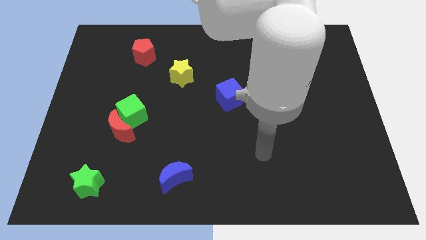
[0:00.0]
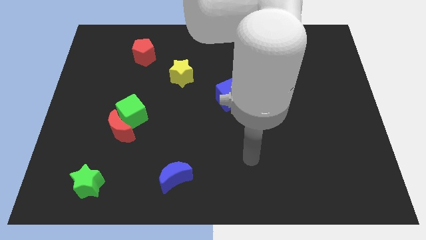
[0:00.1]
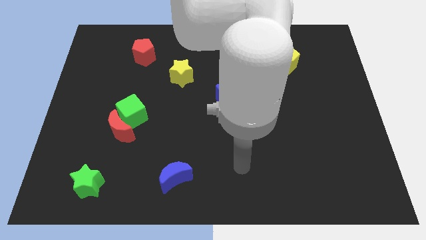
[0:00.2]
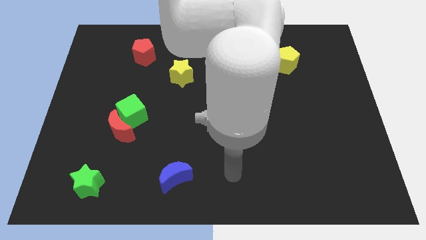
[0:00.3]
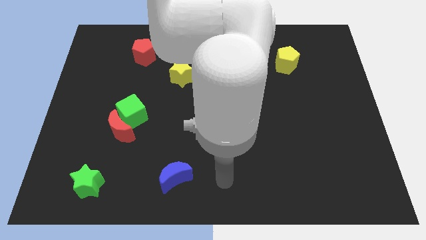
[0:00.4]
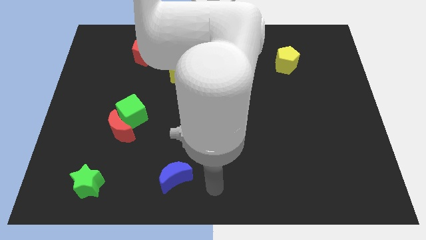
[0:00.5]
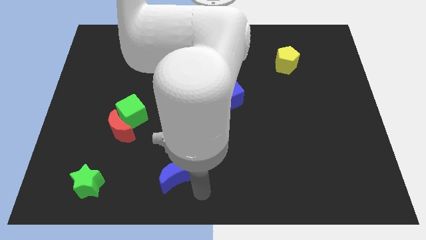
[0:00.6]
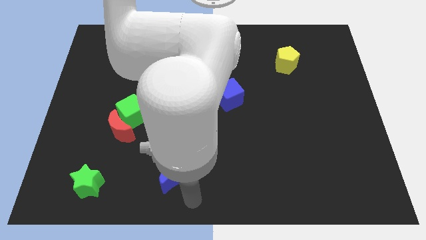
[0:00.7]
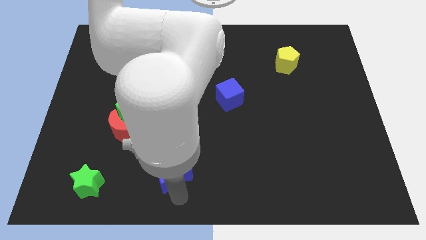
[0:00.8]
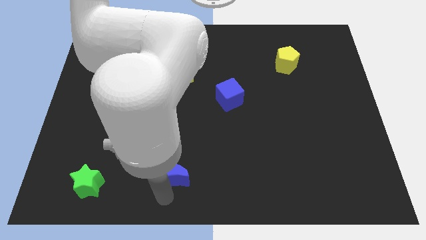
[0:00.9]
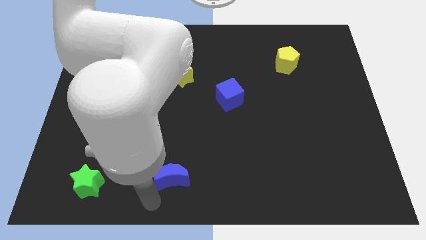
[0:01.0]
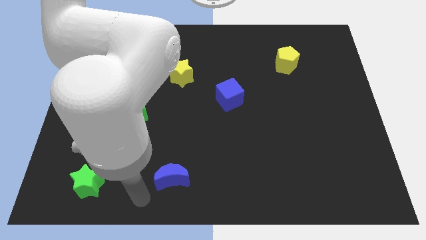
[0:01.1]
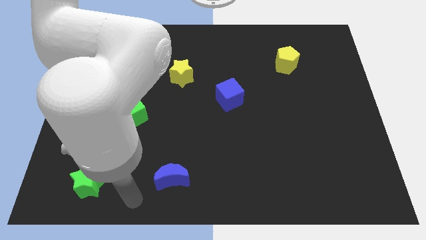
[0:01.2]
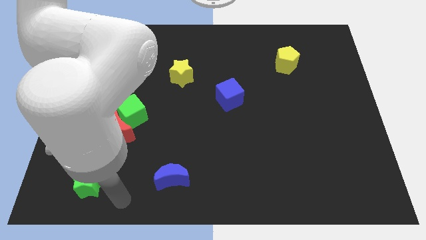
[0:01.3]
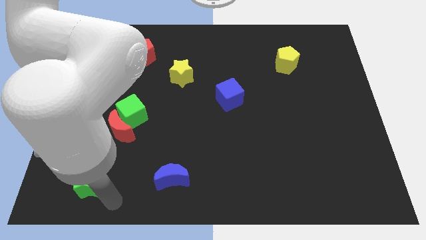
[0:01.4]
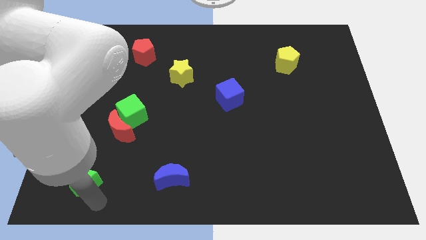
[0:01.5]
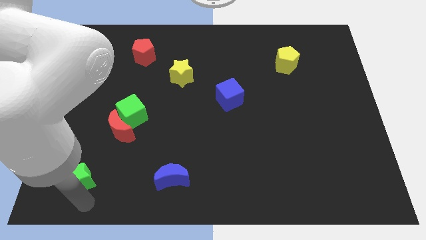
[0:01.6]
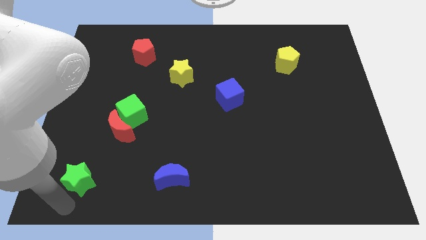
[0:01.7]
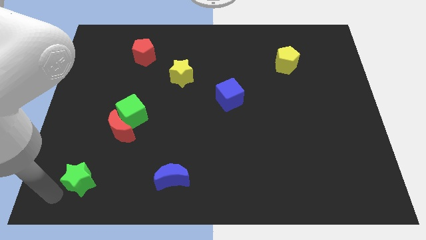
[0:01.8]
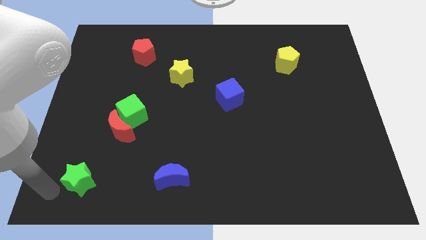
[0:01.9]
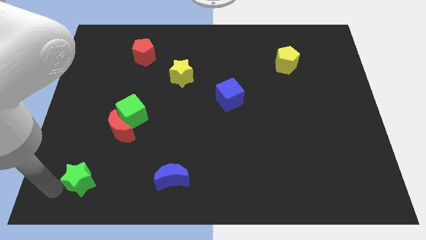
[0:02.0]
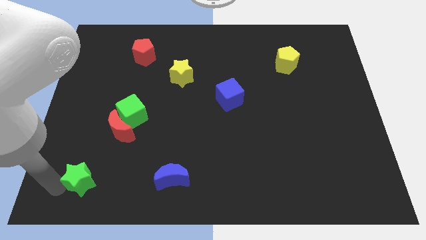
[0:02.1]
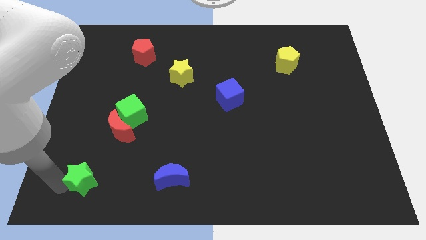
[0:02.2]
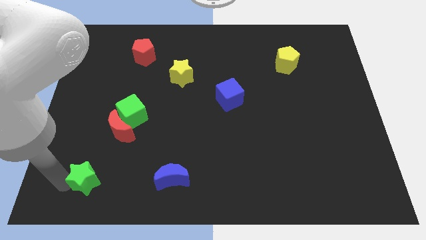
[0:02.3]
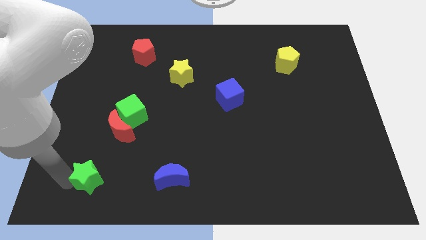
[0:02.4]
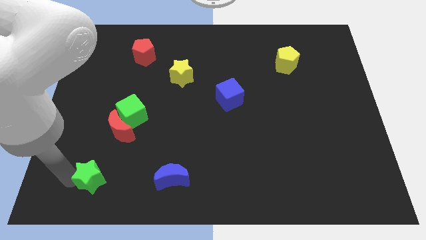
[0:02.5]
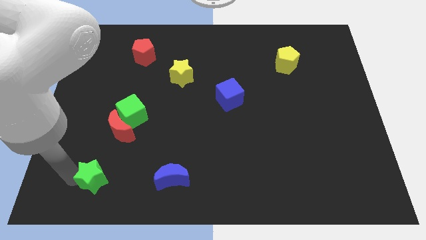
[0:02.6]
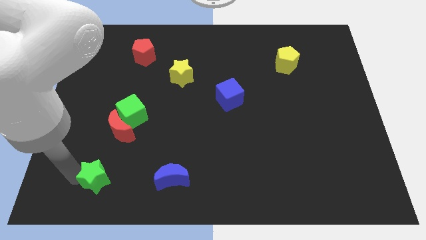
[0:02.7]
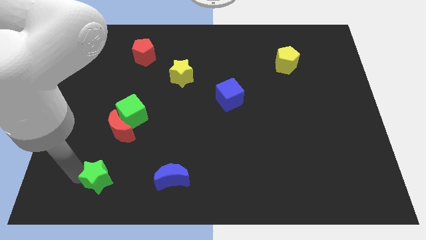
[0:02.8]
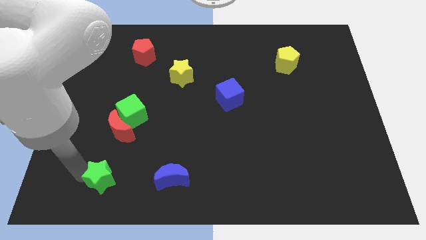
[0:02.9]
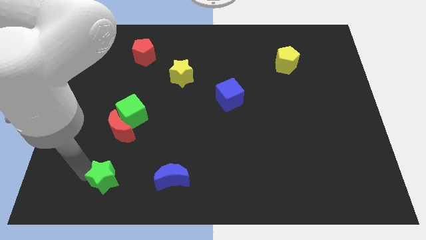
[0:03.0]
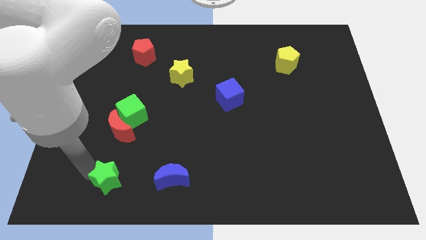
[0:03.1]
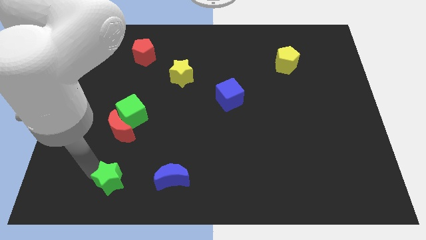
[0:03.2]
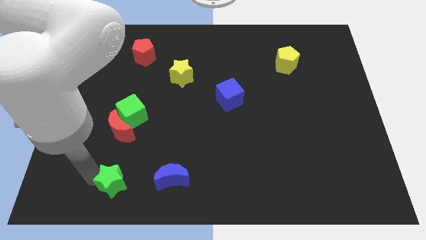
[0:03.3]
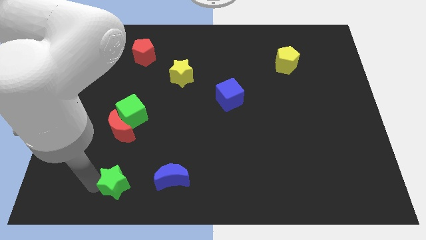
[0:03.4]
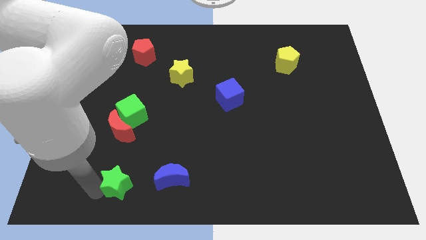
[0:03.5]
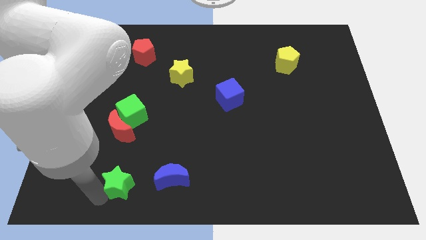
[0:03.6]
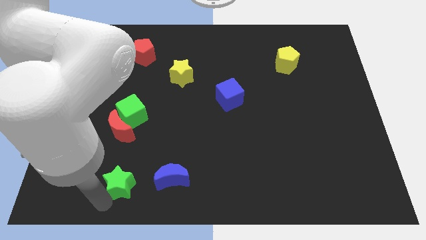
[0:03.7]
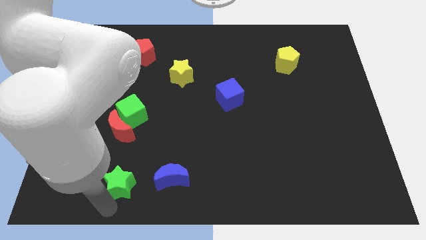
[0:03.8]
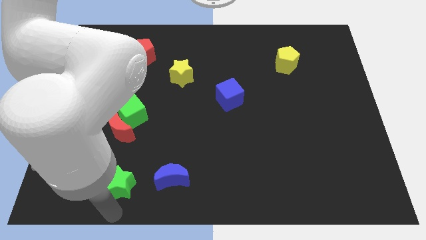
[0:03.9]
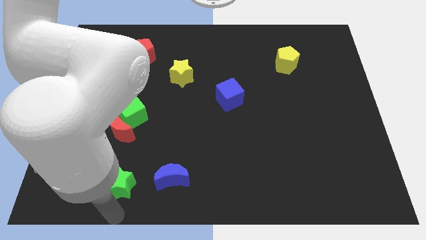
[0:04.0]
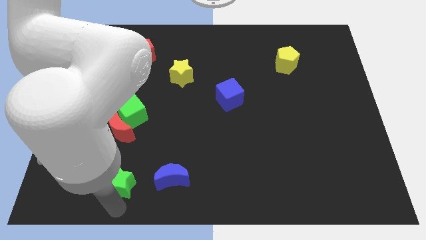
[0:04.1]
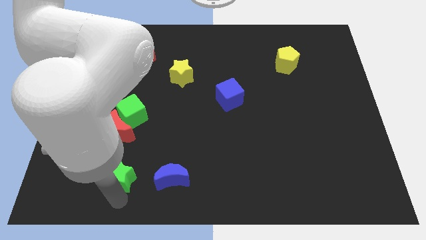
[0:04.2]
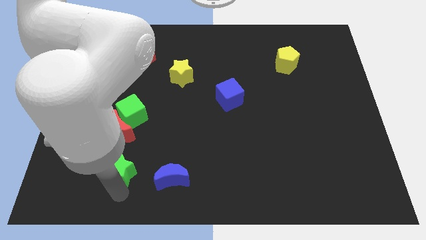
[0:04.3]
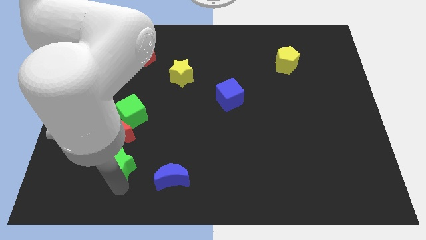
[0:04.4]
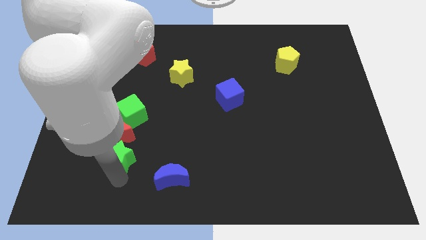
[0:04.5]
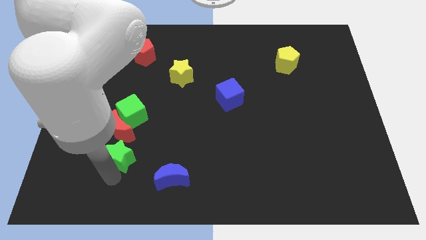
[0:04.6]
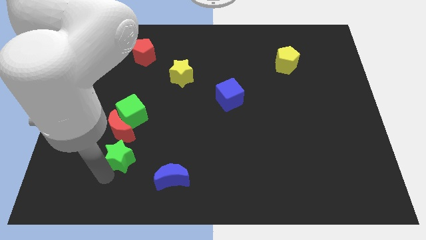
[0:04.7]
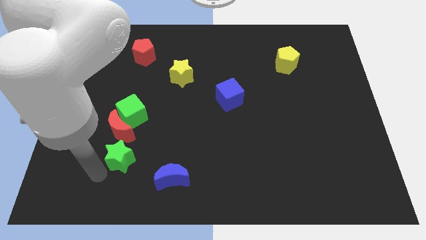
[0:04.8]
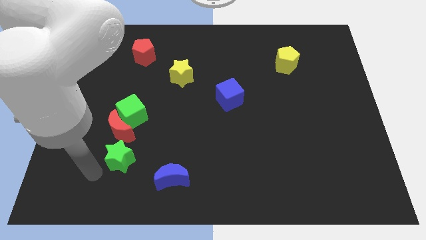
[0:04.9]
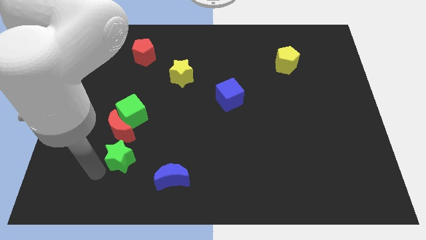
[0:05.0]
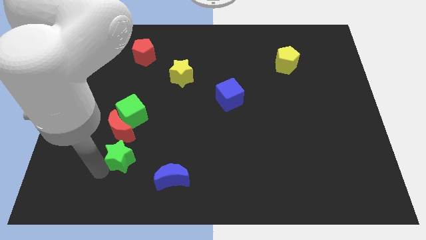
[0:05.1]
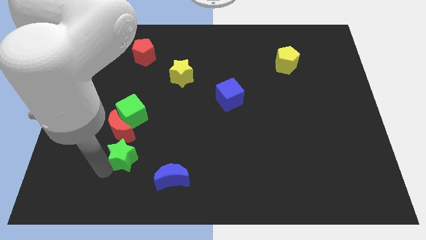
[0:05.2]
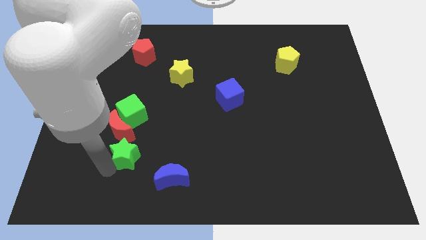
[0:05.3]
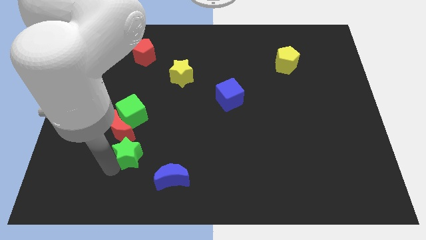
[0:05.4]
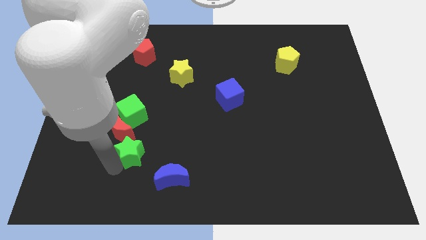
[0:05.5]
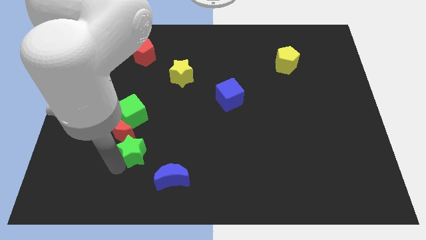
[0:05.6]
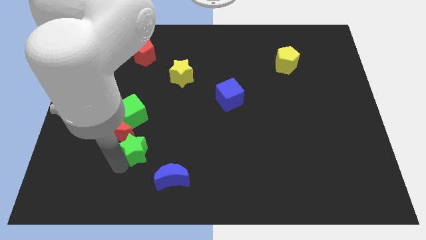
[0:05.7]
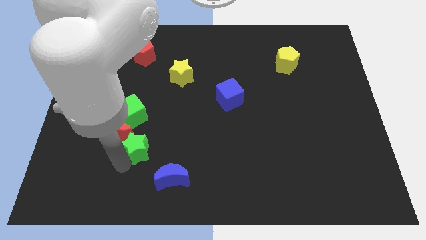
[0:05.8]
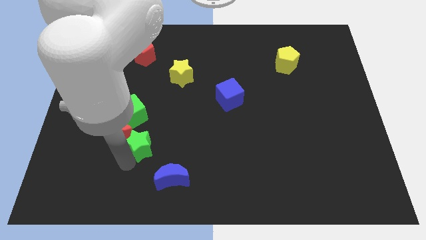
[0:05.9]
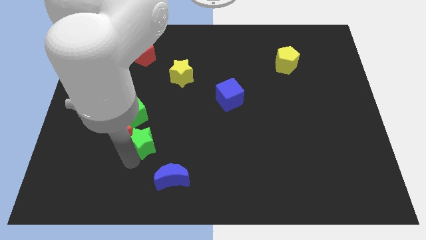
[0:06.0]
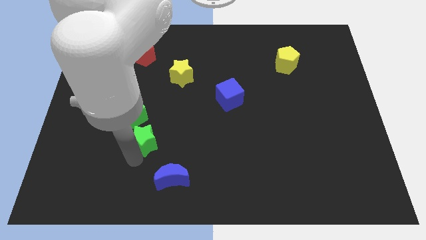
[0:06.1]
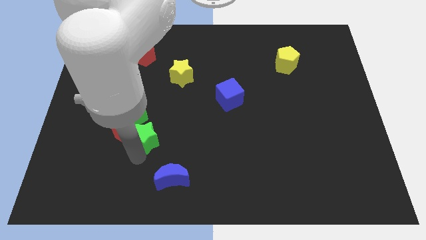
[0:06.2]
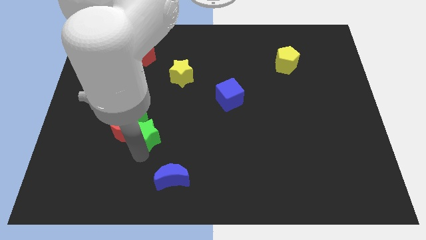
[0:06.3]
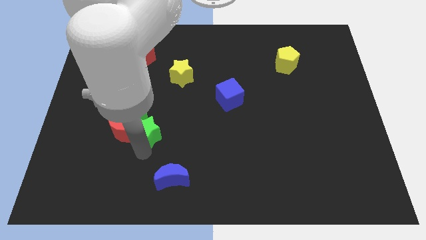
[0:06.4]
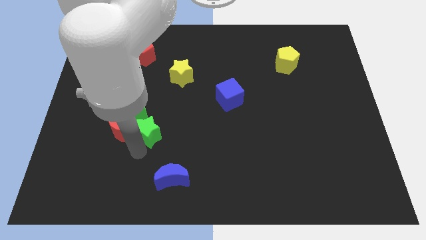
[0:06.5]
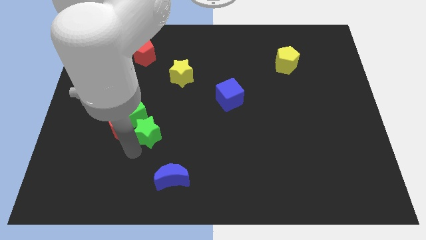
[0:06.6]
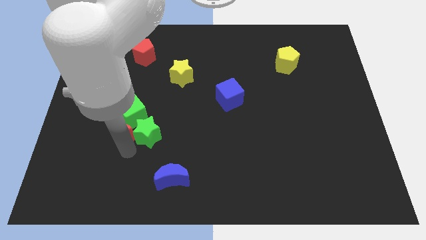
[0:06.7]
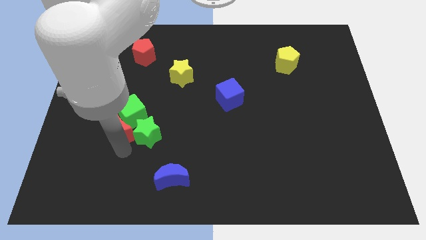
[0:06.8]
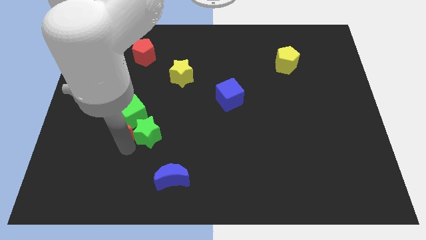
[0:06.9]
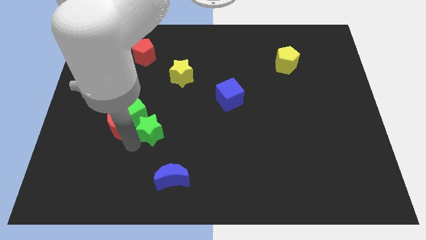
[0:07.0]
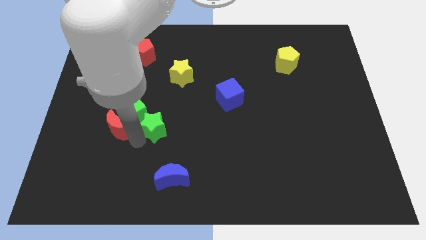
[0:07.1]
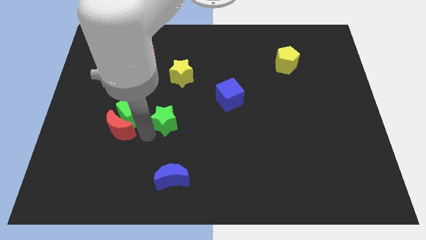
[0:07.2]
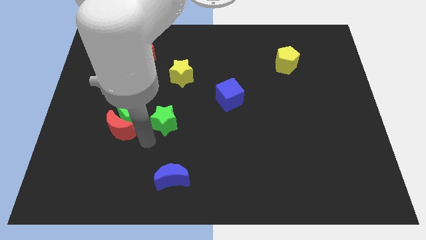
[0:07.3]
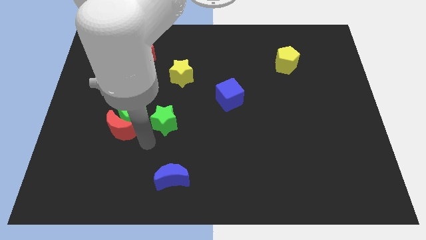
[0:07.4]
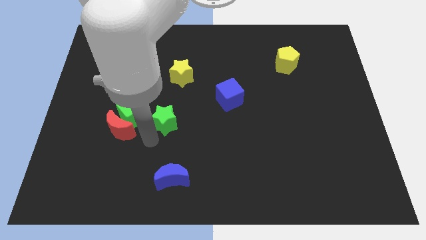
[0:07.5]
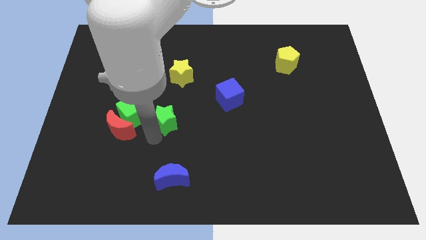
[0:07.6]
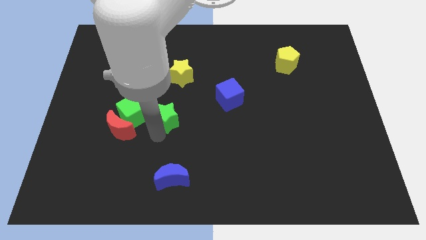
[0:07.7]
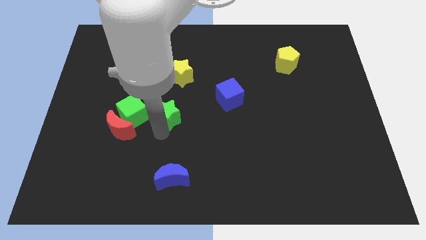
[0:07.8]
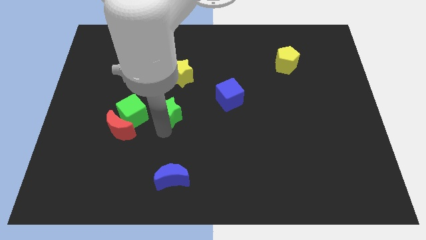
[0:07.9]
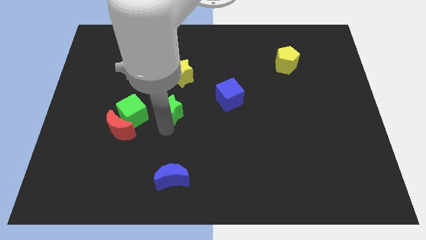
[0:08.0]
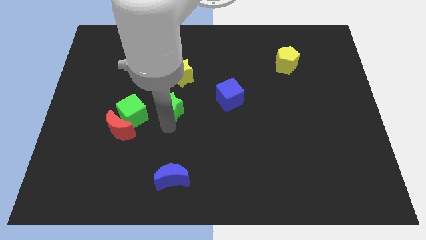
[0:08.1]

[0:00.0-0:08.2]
push the green star left of the blue cube
